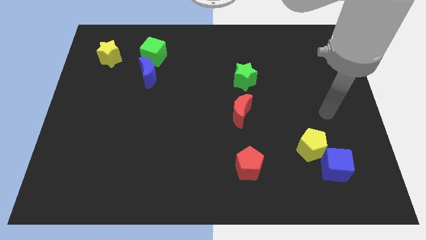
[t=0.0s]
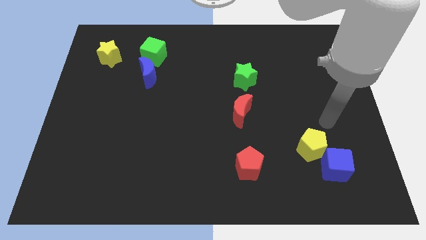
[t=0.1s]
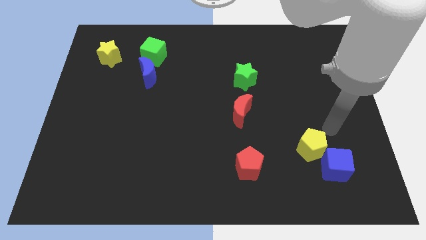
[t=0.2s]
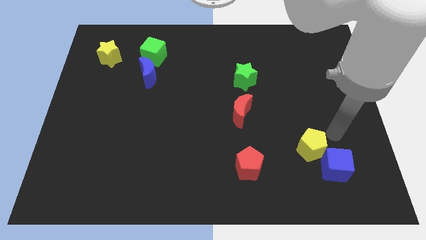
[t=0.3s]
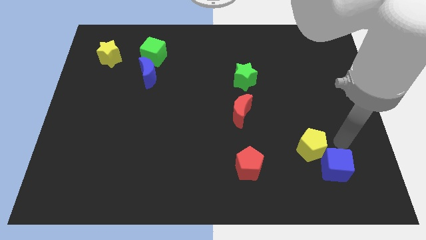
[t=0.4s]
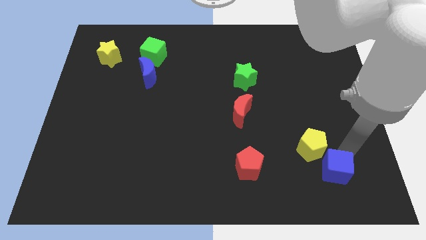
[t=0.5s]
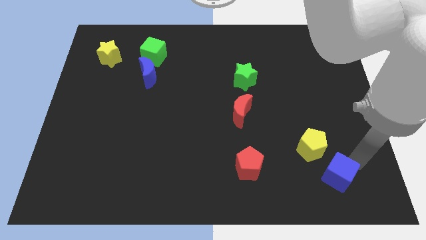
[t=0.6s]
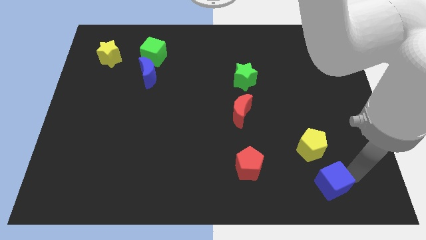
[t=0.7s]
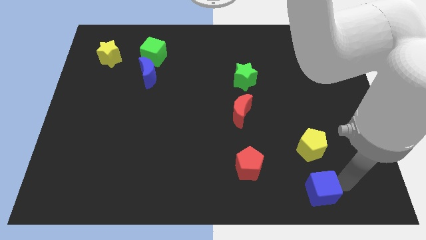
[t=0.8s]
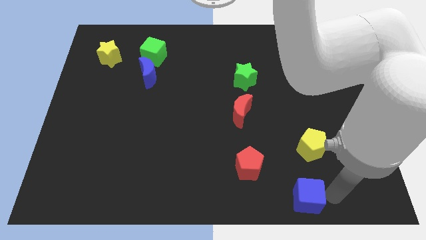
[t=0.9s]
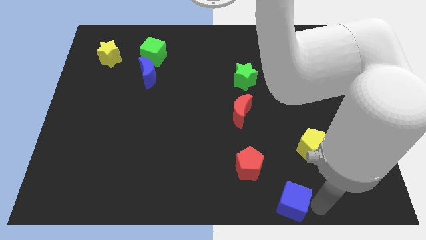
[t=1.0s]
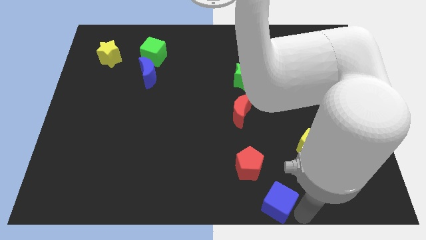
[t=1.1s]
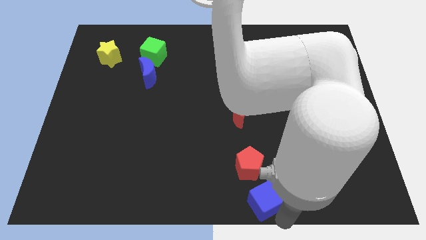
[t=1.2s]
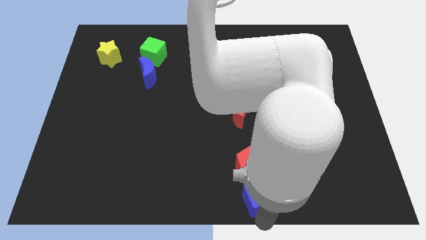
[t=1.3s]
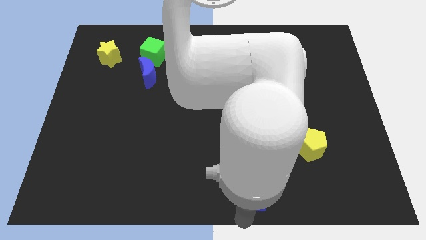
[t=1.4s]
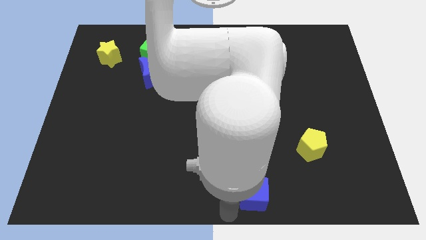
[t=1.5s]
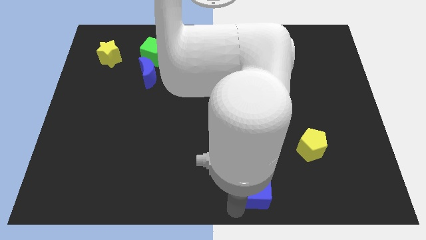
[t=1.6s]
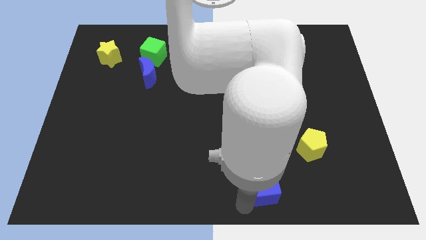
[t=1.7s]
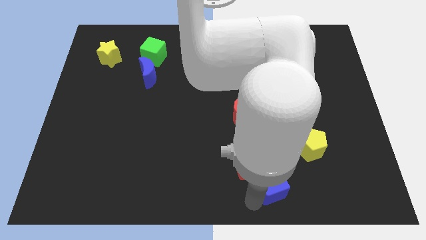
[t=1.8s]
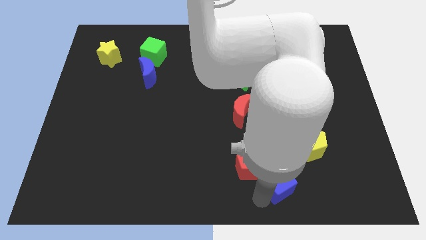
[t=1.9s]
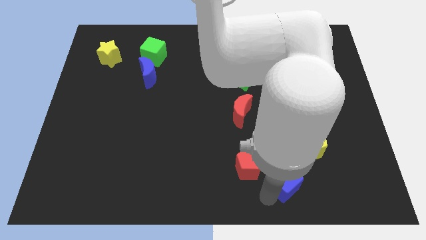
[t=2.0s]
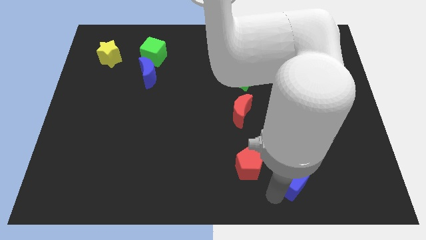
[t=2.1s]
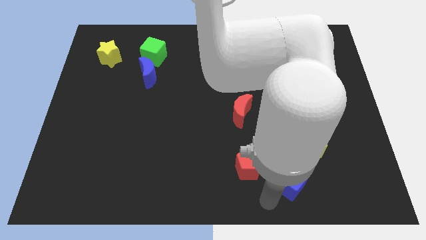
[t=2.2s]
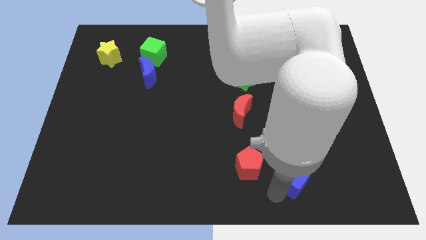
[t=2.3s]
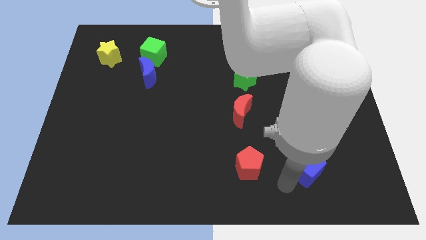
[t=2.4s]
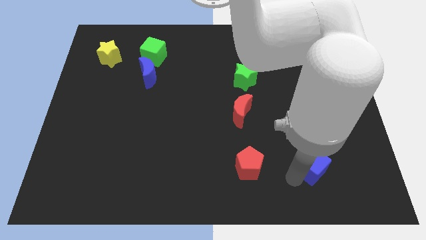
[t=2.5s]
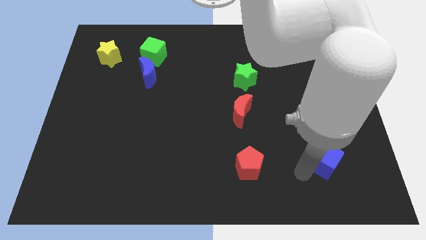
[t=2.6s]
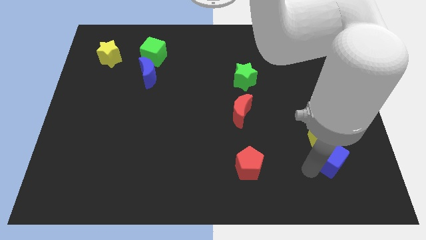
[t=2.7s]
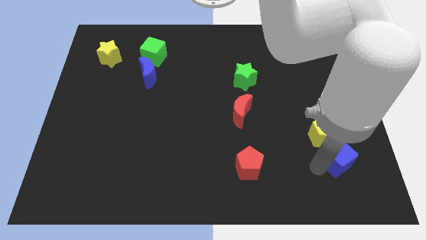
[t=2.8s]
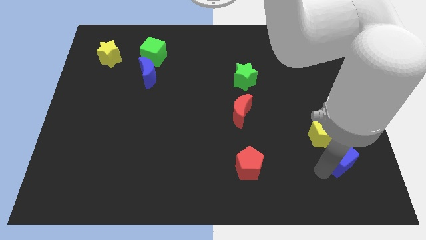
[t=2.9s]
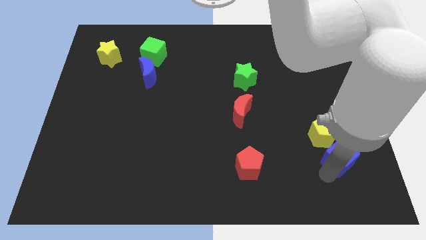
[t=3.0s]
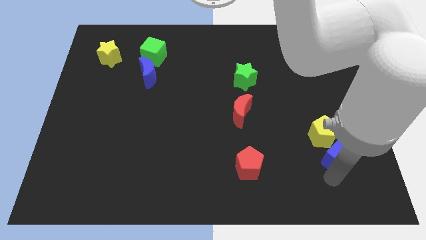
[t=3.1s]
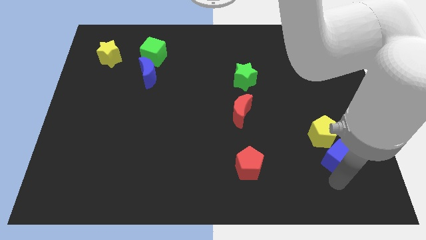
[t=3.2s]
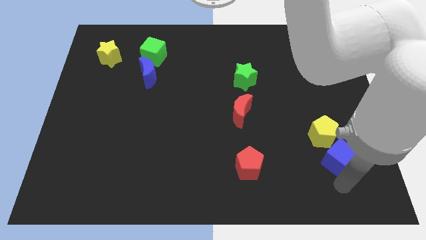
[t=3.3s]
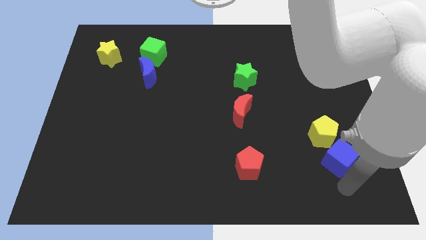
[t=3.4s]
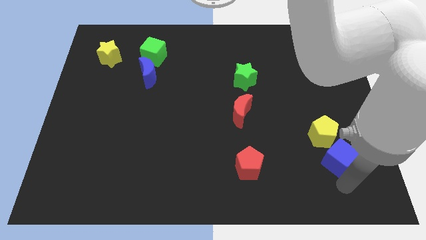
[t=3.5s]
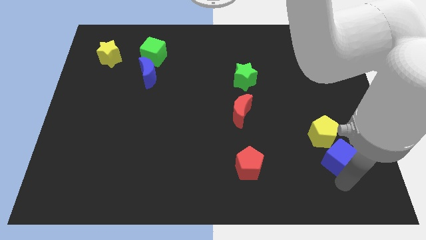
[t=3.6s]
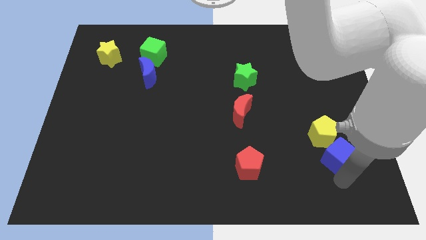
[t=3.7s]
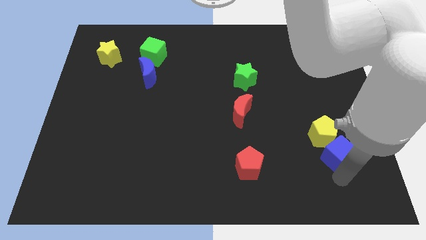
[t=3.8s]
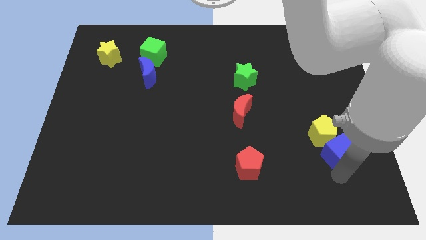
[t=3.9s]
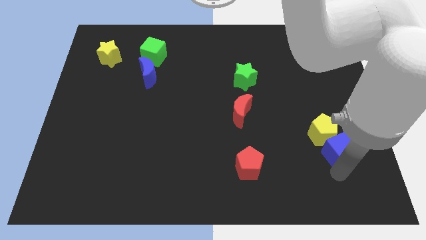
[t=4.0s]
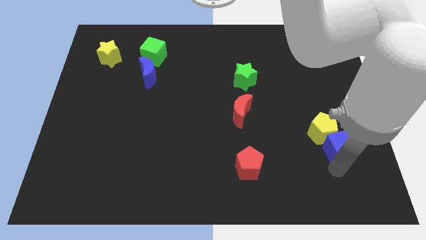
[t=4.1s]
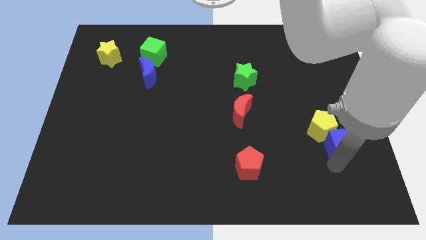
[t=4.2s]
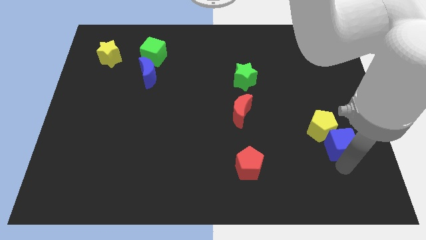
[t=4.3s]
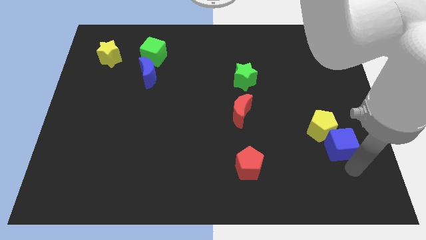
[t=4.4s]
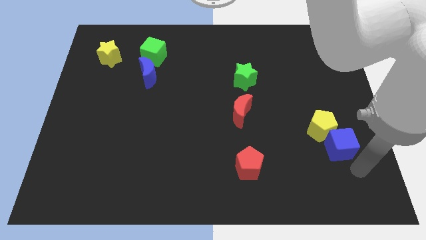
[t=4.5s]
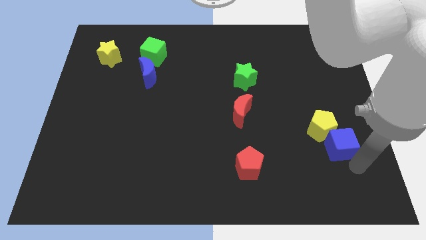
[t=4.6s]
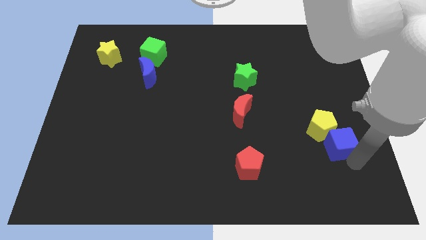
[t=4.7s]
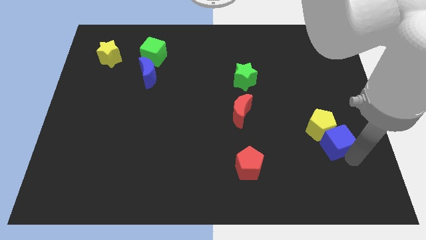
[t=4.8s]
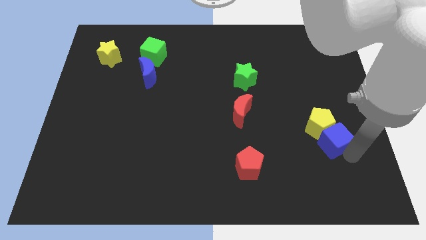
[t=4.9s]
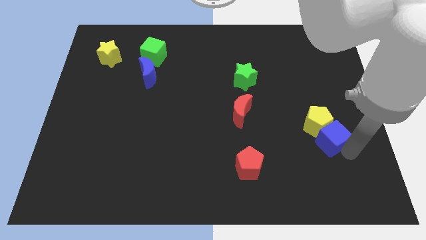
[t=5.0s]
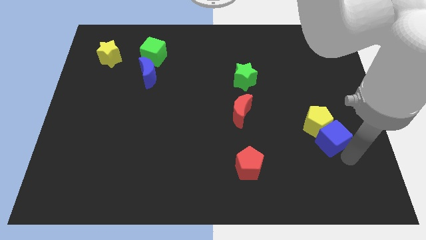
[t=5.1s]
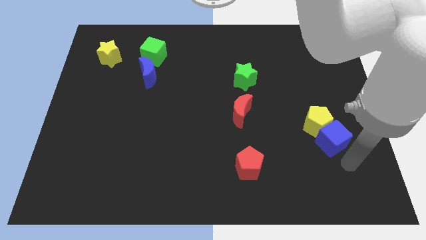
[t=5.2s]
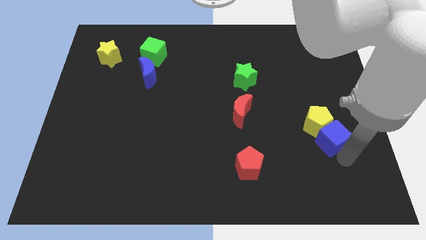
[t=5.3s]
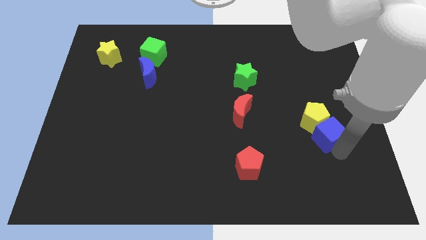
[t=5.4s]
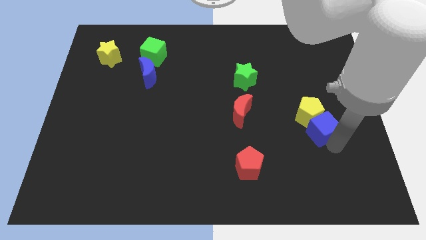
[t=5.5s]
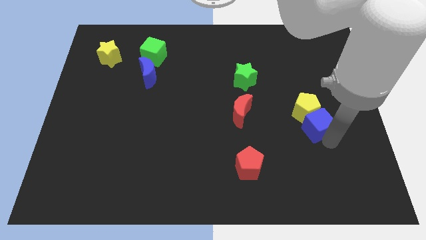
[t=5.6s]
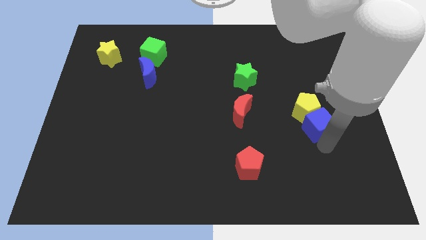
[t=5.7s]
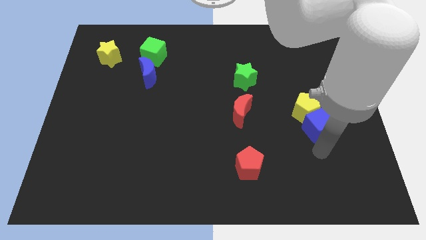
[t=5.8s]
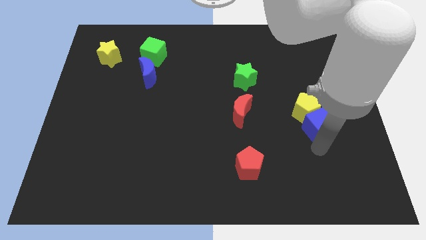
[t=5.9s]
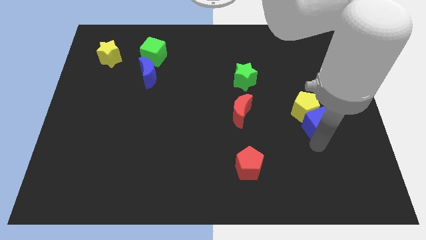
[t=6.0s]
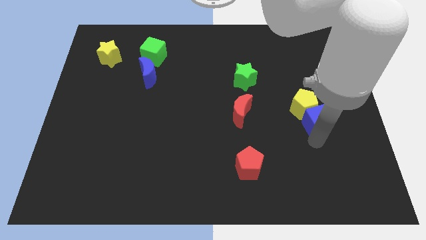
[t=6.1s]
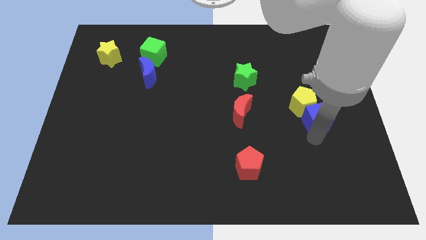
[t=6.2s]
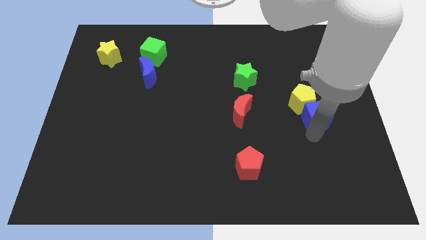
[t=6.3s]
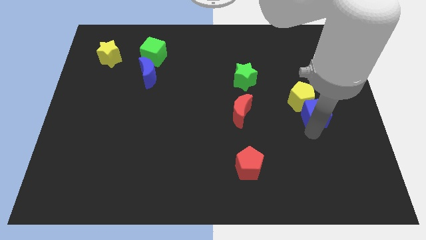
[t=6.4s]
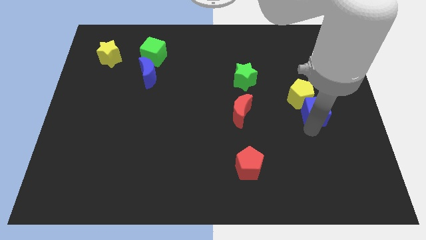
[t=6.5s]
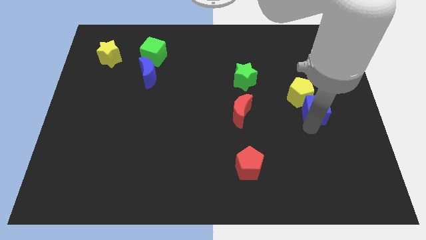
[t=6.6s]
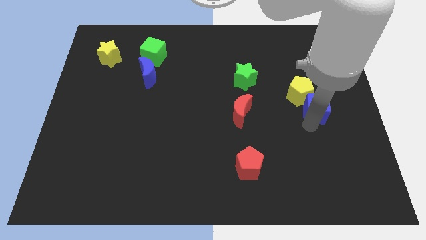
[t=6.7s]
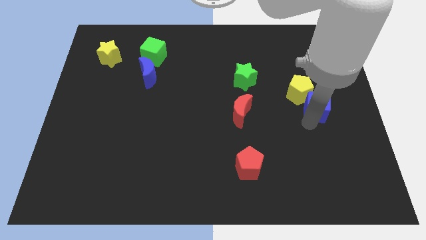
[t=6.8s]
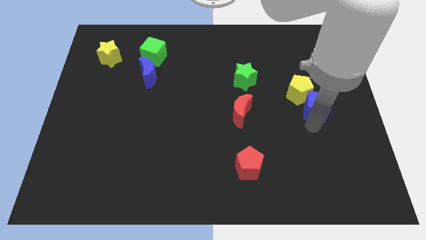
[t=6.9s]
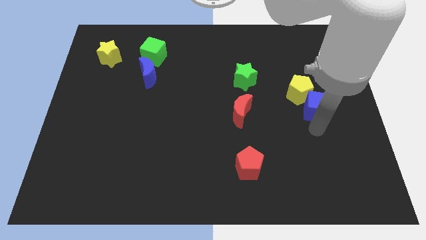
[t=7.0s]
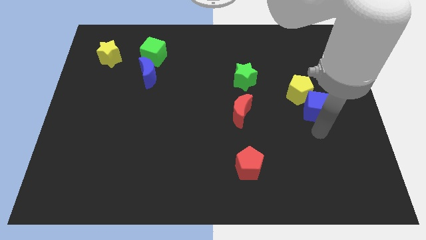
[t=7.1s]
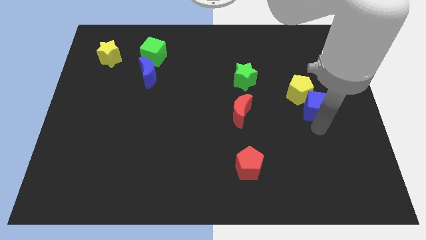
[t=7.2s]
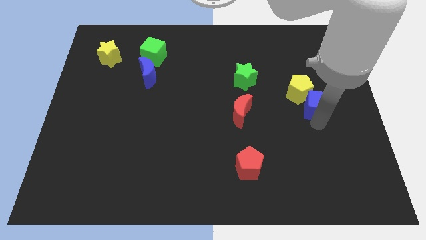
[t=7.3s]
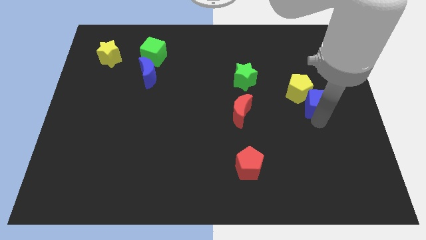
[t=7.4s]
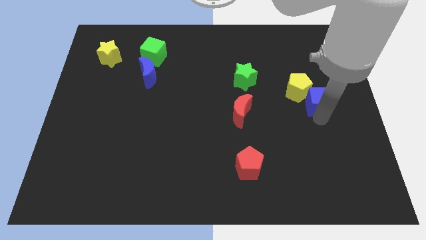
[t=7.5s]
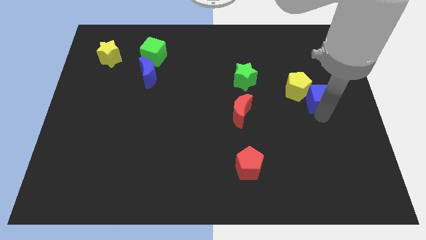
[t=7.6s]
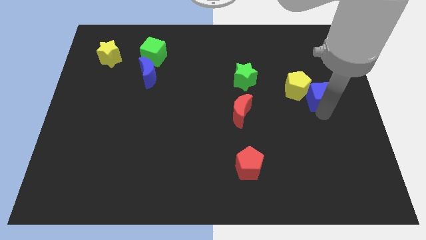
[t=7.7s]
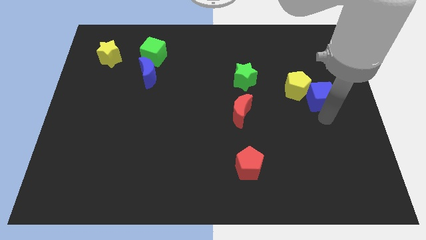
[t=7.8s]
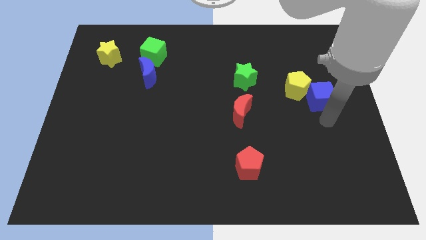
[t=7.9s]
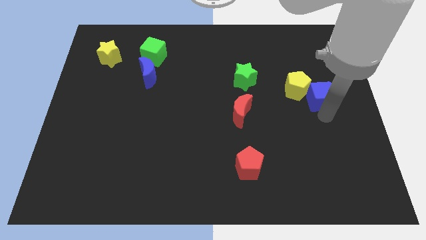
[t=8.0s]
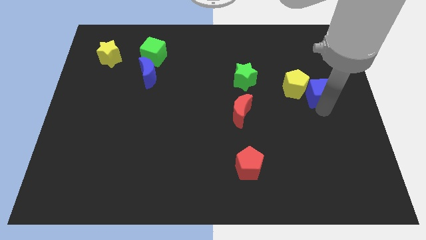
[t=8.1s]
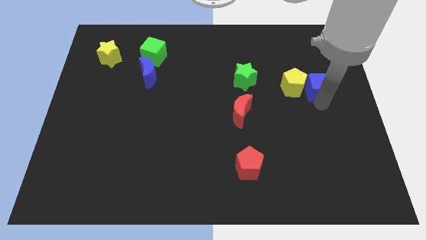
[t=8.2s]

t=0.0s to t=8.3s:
push the blue cube upwards
